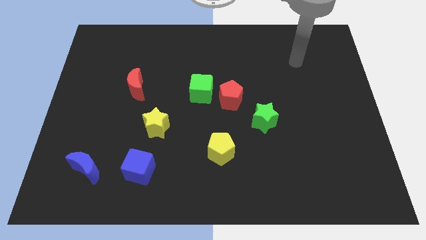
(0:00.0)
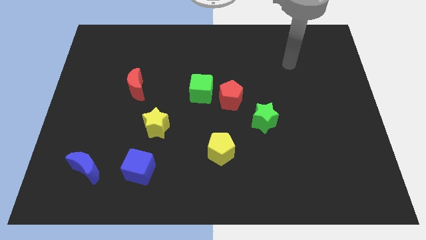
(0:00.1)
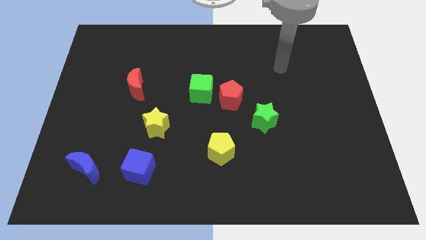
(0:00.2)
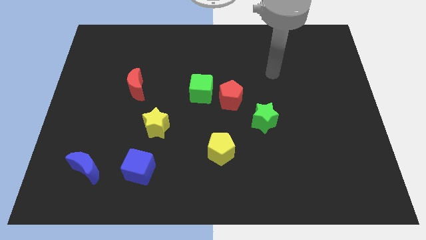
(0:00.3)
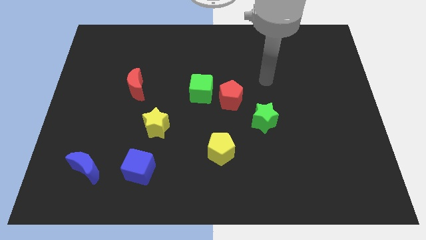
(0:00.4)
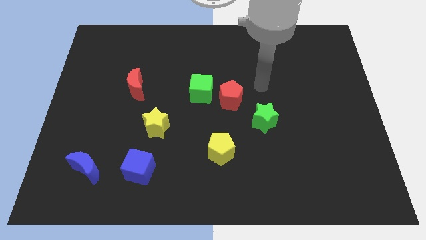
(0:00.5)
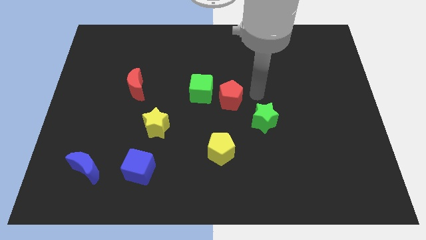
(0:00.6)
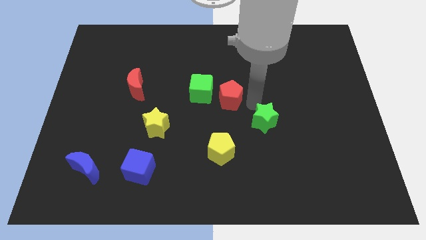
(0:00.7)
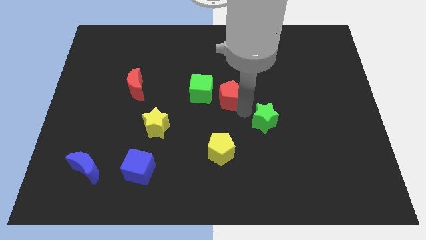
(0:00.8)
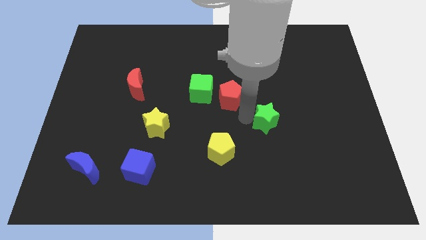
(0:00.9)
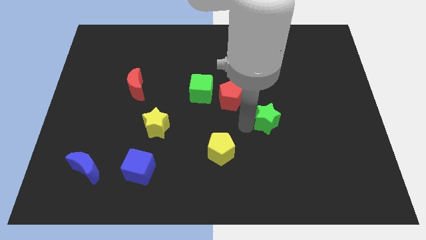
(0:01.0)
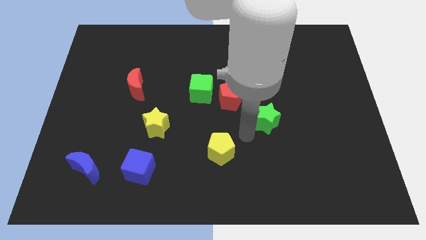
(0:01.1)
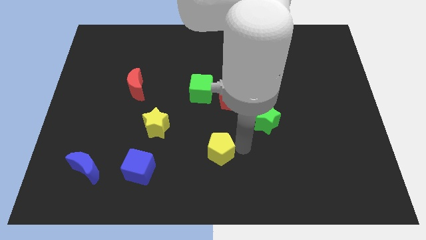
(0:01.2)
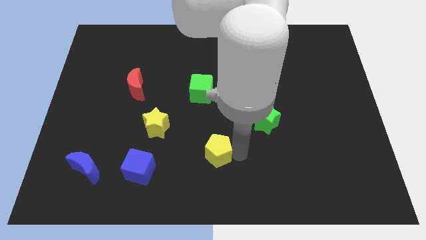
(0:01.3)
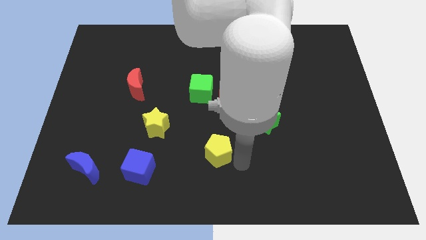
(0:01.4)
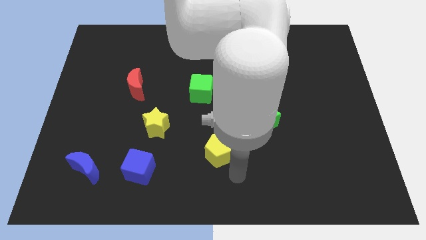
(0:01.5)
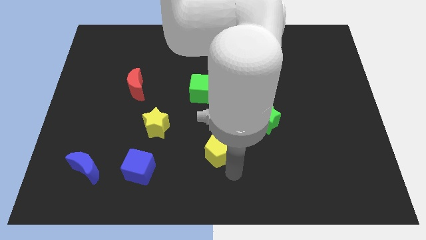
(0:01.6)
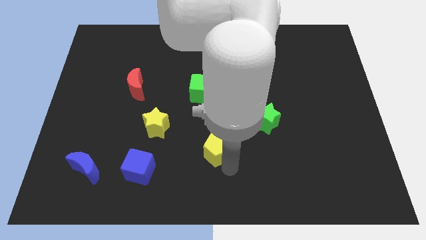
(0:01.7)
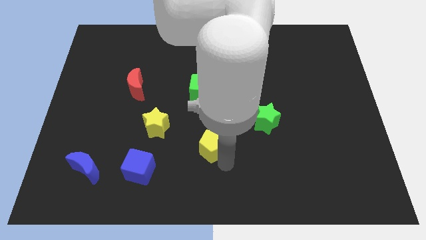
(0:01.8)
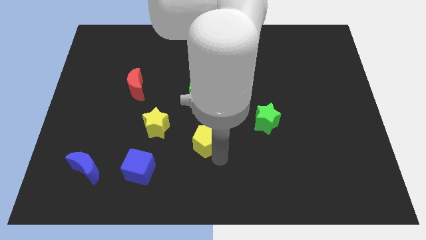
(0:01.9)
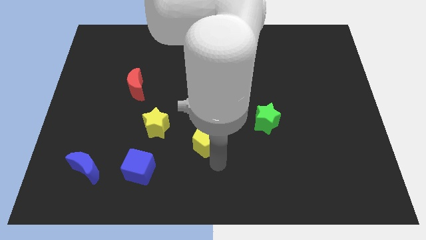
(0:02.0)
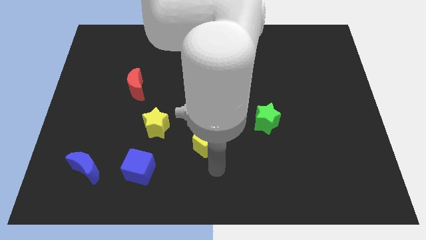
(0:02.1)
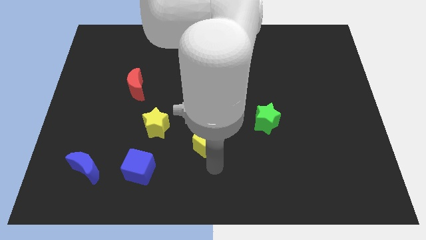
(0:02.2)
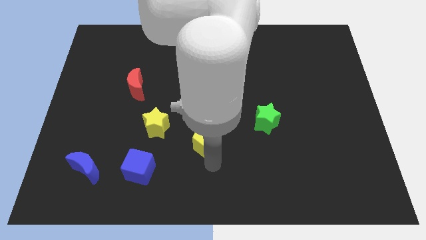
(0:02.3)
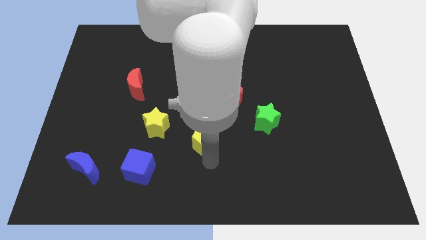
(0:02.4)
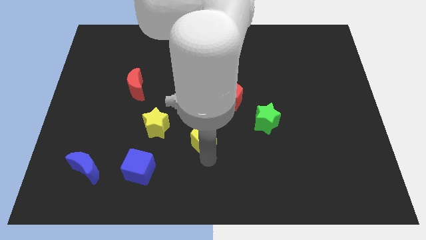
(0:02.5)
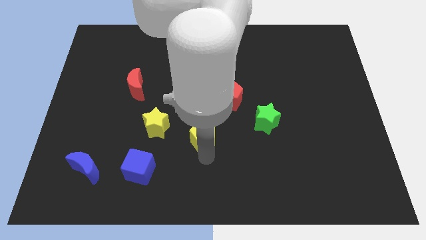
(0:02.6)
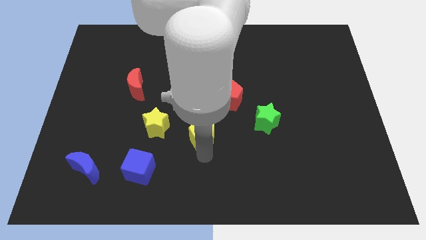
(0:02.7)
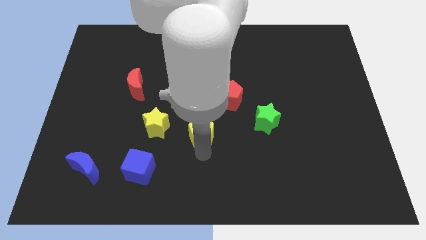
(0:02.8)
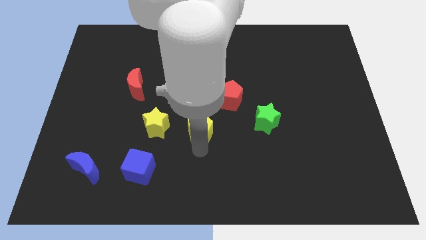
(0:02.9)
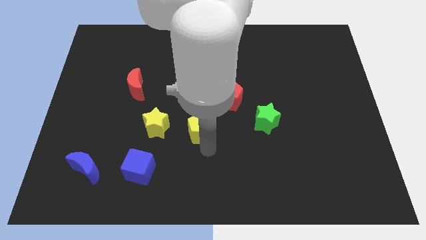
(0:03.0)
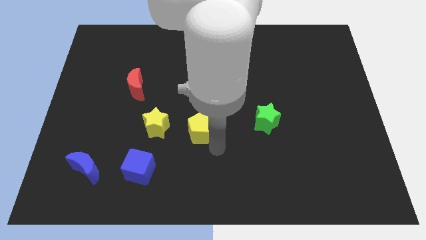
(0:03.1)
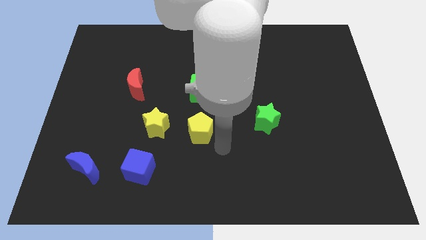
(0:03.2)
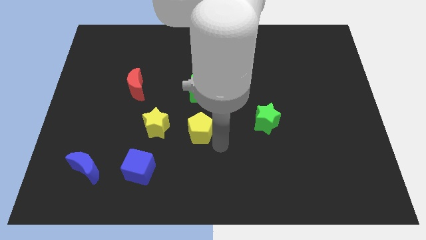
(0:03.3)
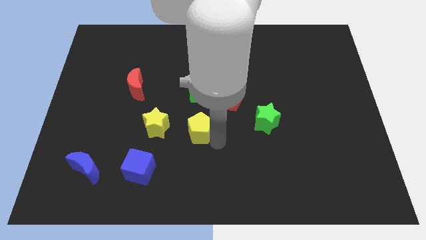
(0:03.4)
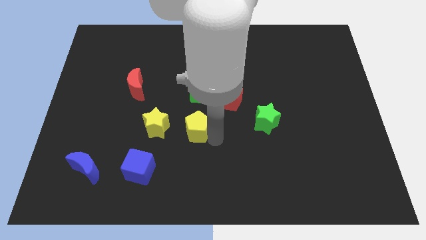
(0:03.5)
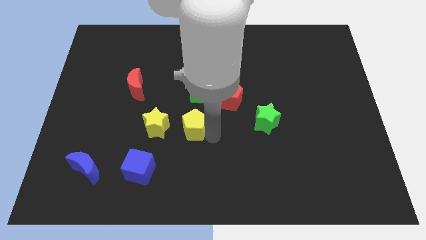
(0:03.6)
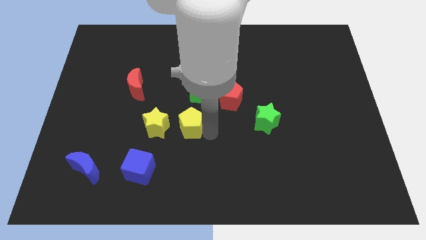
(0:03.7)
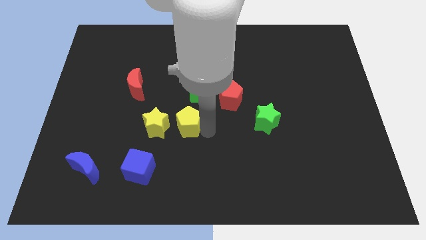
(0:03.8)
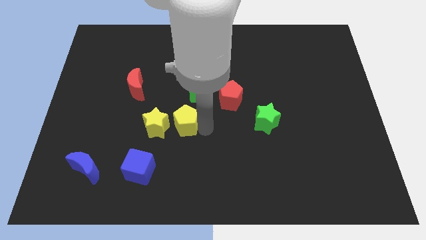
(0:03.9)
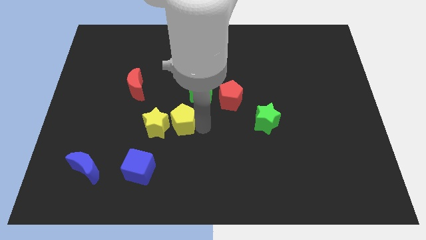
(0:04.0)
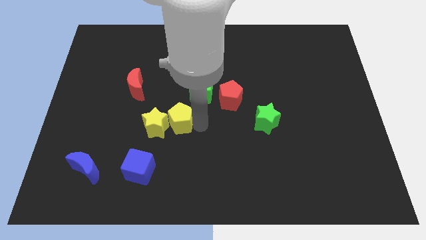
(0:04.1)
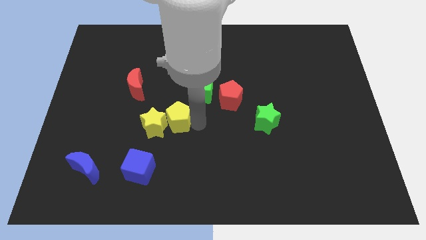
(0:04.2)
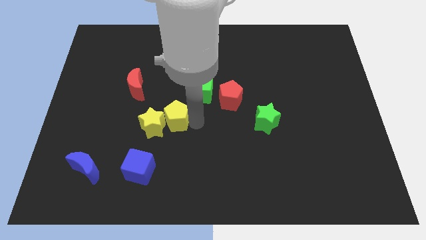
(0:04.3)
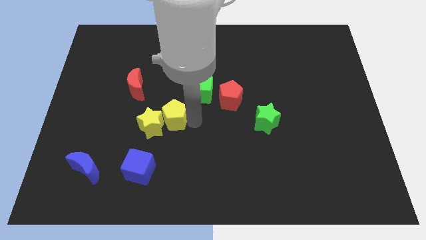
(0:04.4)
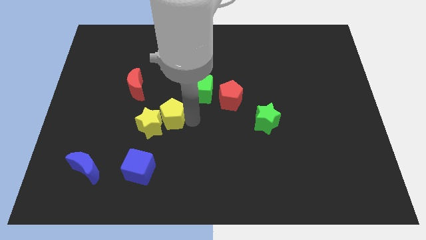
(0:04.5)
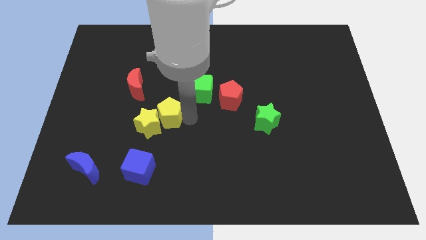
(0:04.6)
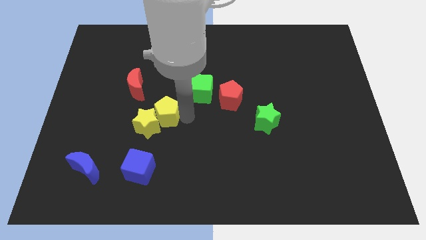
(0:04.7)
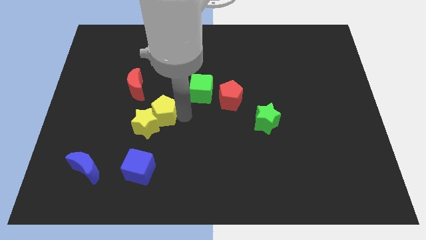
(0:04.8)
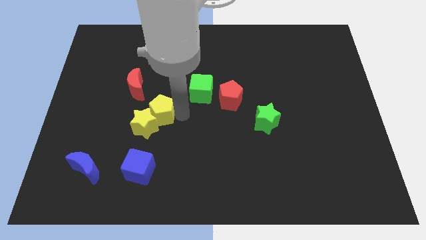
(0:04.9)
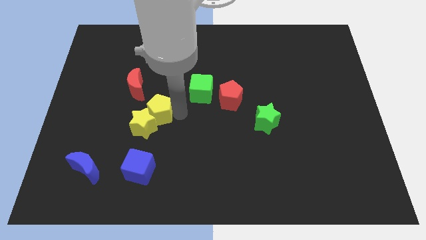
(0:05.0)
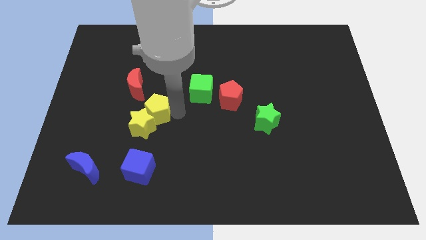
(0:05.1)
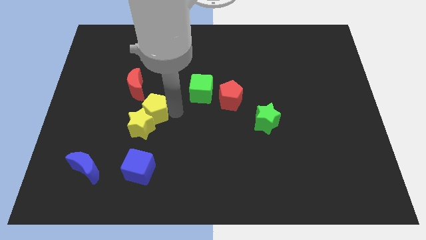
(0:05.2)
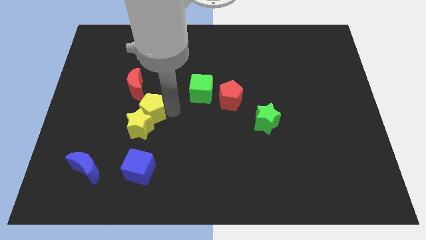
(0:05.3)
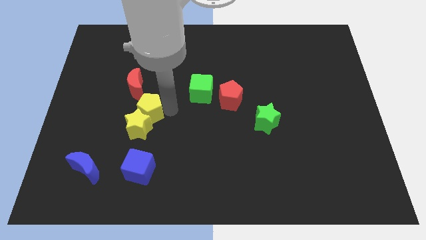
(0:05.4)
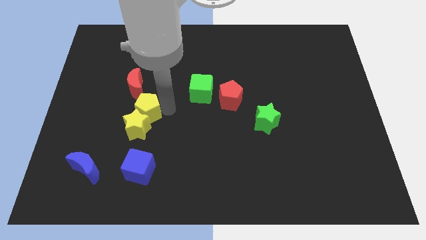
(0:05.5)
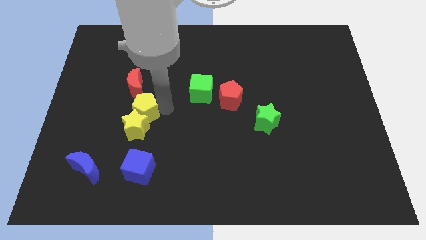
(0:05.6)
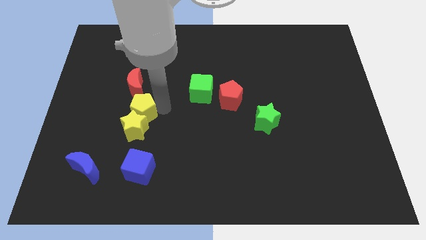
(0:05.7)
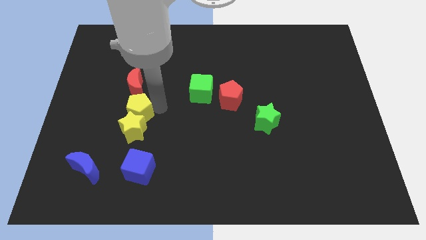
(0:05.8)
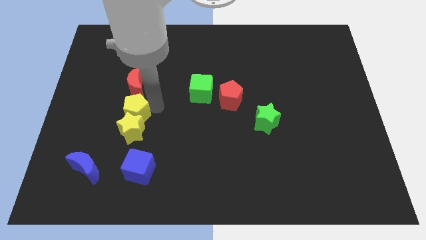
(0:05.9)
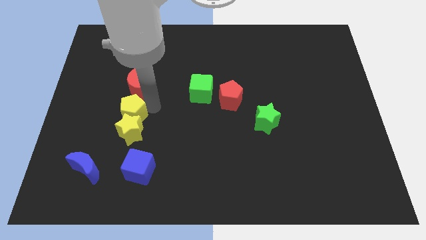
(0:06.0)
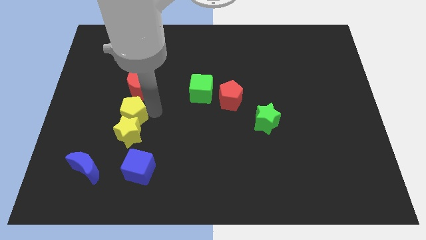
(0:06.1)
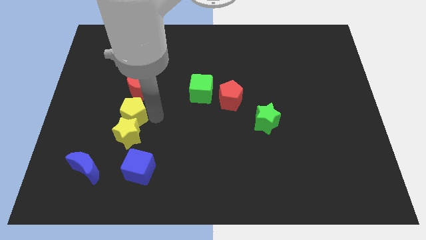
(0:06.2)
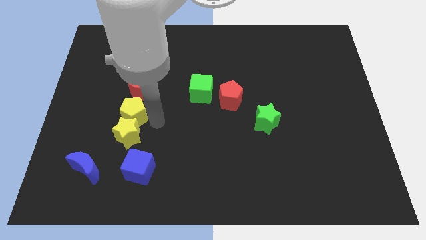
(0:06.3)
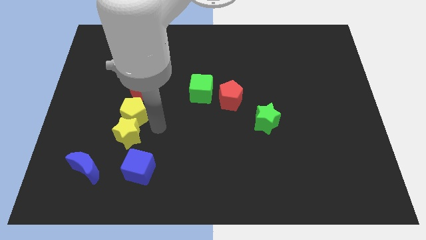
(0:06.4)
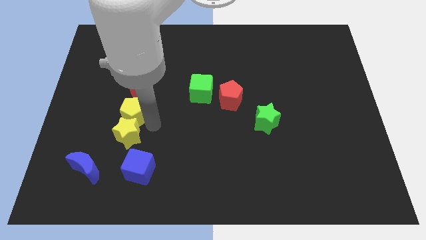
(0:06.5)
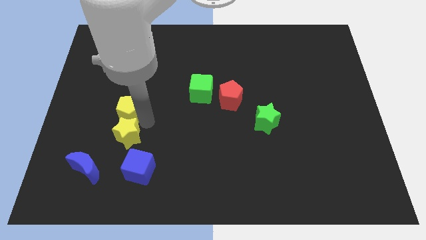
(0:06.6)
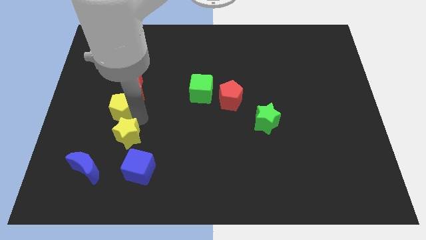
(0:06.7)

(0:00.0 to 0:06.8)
slide the yellow pentagon diagonally down and to the left of the red moon
